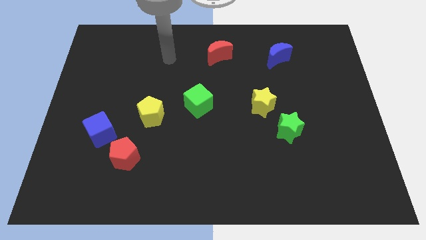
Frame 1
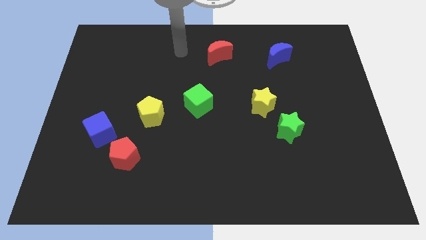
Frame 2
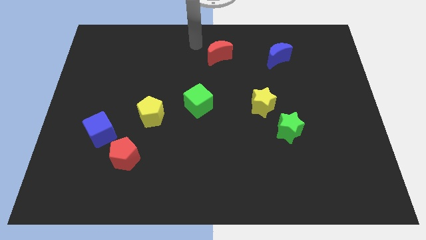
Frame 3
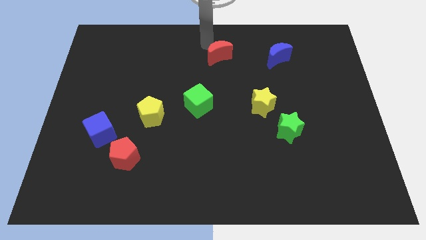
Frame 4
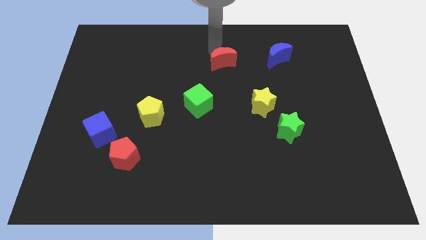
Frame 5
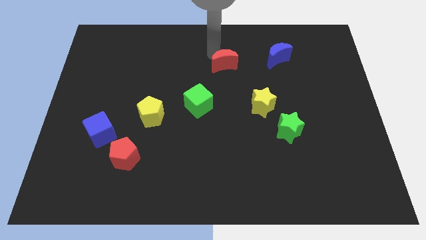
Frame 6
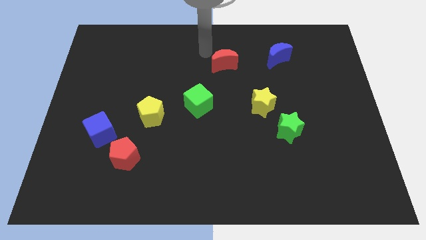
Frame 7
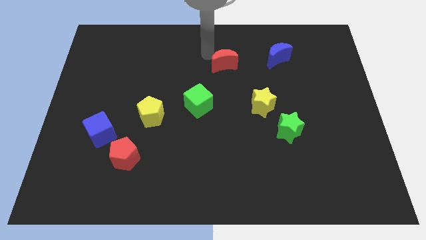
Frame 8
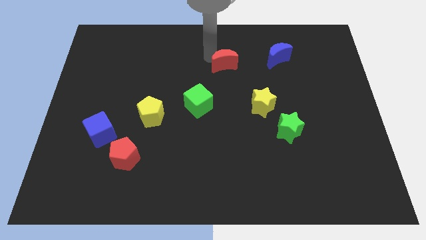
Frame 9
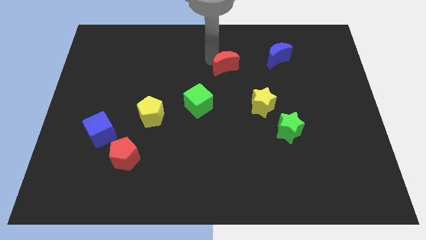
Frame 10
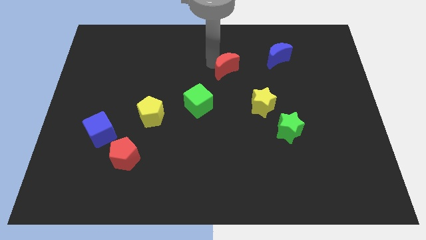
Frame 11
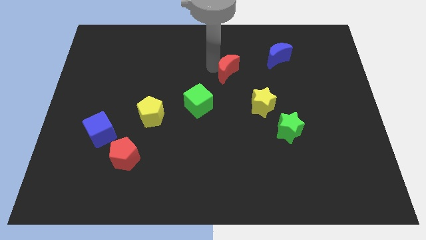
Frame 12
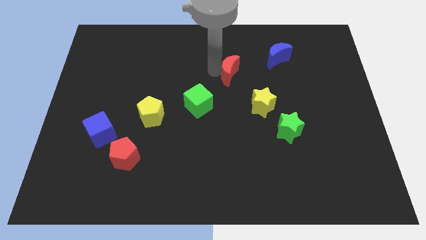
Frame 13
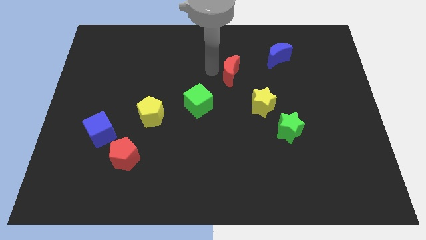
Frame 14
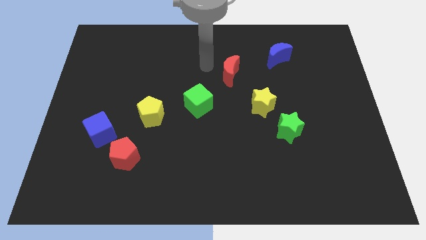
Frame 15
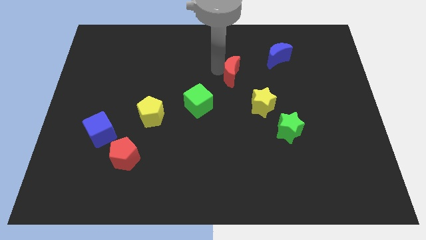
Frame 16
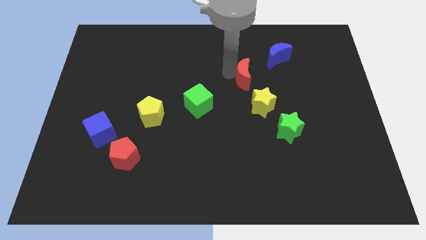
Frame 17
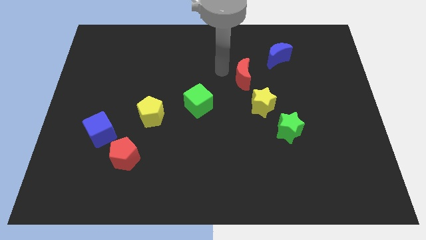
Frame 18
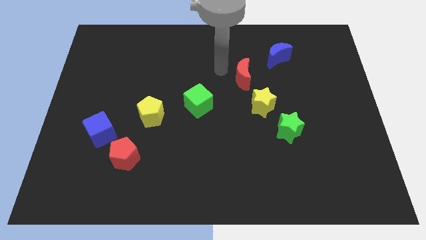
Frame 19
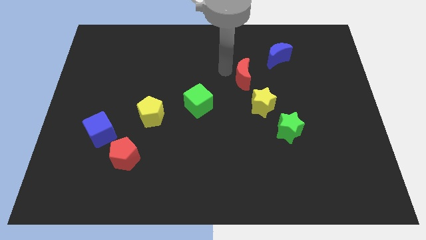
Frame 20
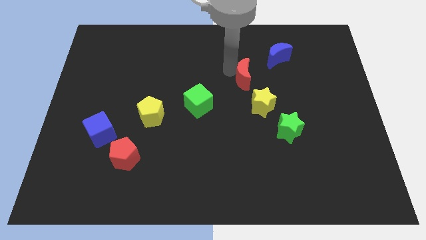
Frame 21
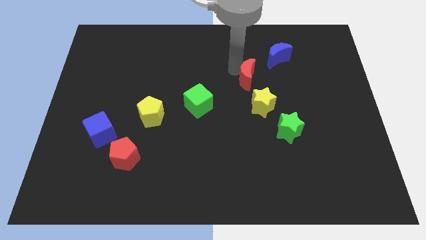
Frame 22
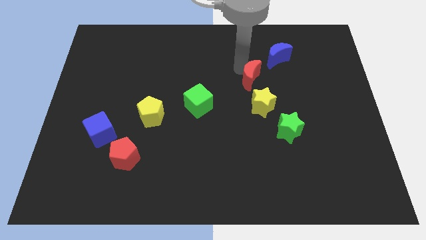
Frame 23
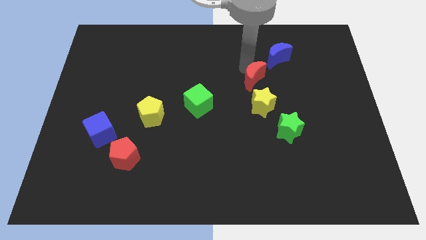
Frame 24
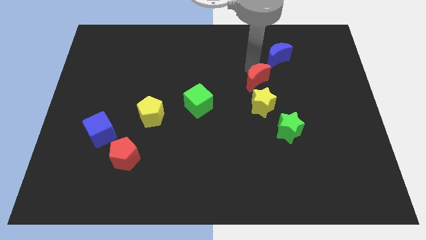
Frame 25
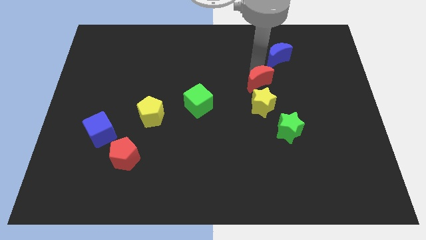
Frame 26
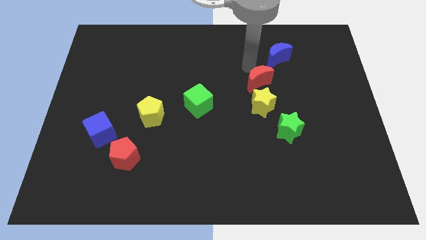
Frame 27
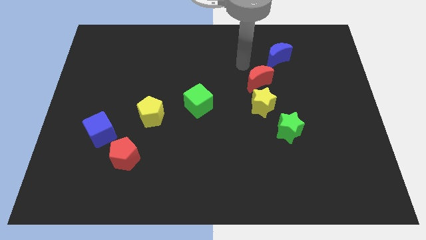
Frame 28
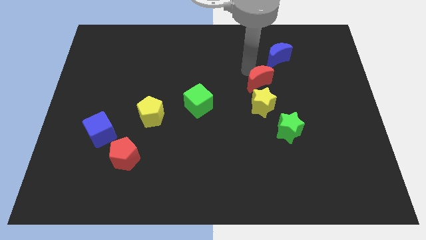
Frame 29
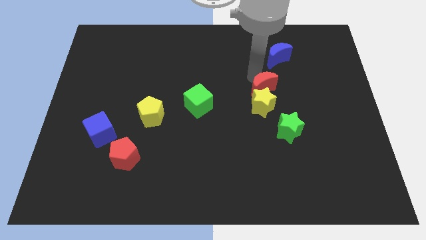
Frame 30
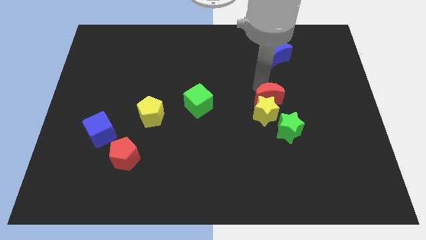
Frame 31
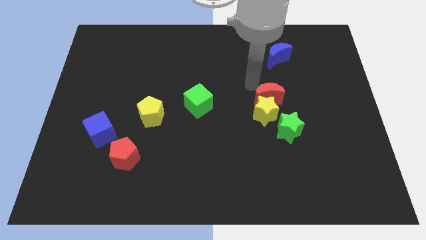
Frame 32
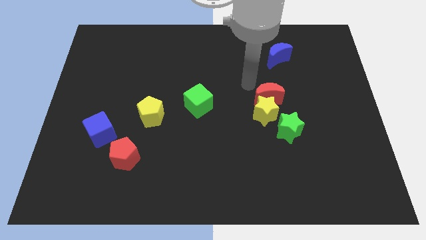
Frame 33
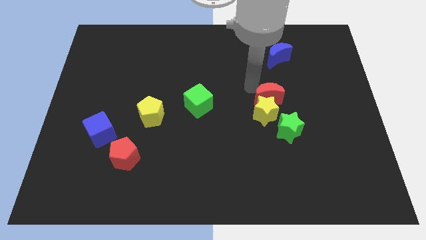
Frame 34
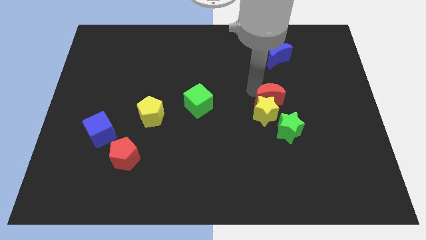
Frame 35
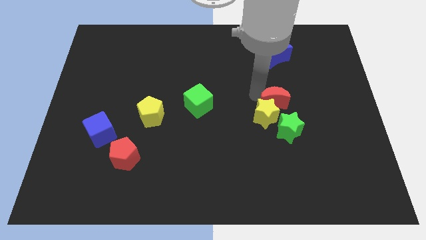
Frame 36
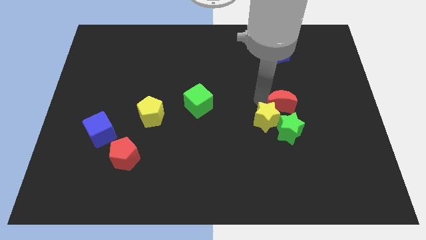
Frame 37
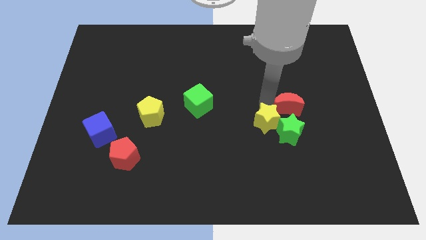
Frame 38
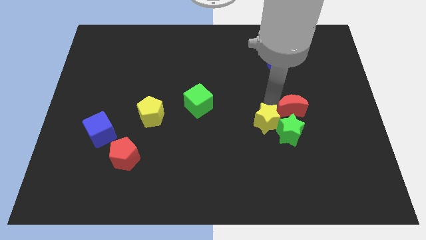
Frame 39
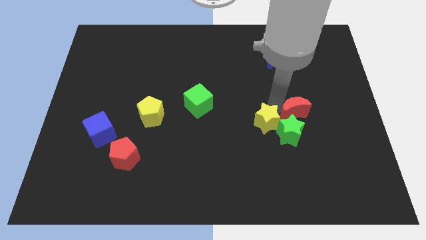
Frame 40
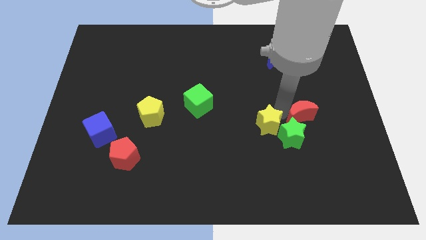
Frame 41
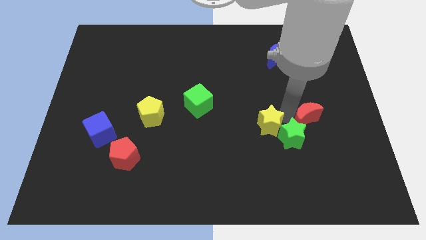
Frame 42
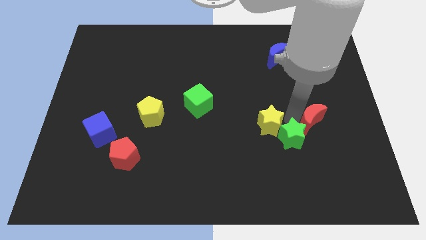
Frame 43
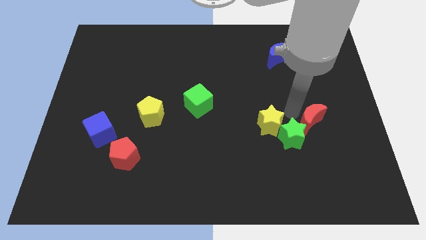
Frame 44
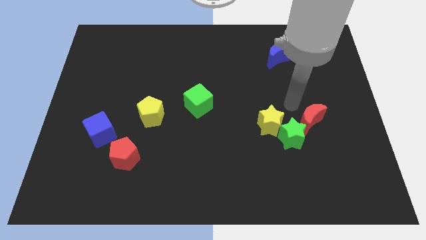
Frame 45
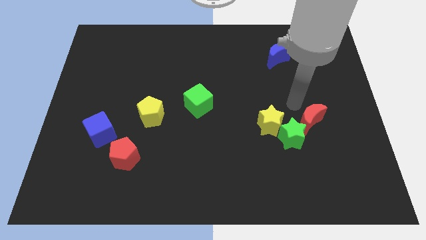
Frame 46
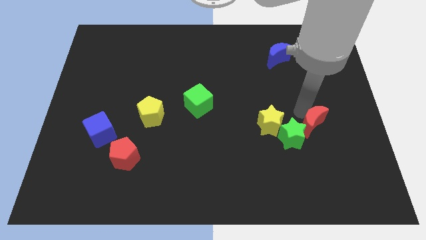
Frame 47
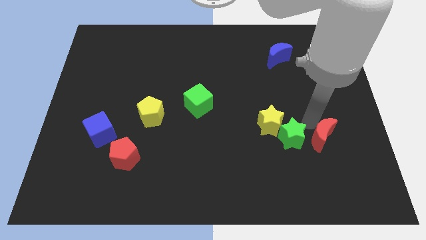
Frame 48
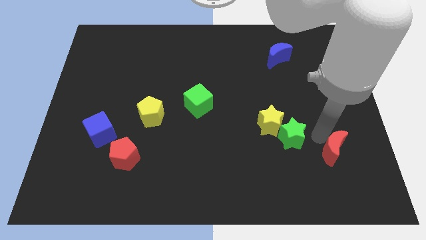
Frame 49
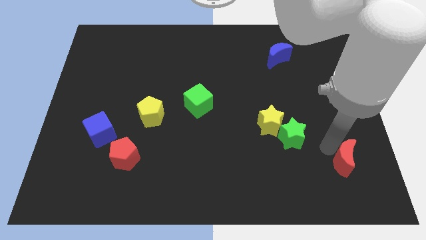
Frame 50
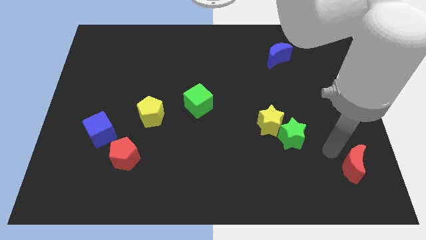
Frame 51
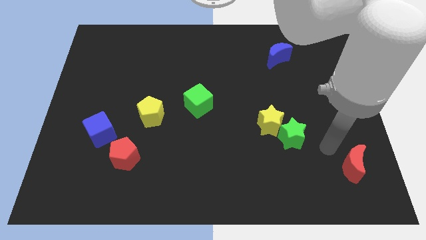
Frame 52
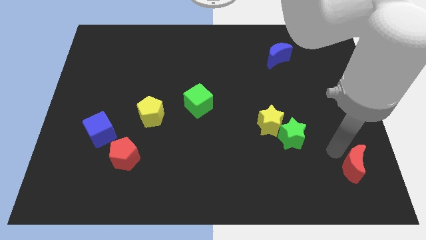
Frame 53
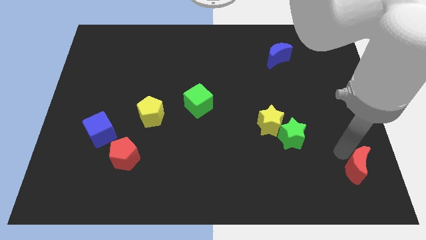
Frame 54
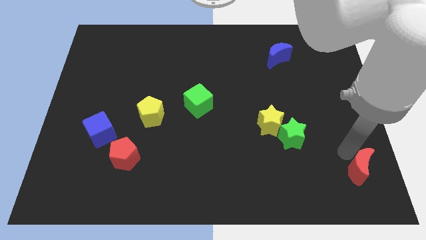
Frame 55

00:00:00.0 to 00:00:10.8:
slide the red moon to the lower right corner

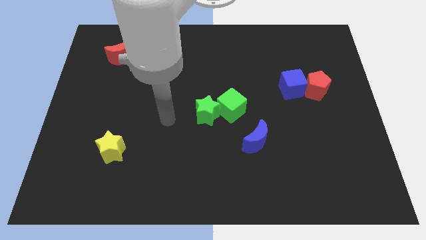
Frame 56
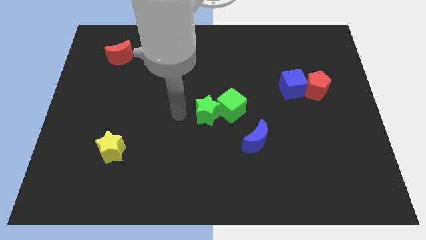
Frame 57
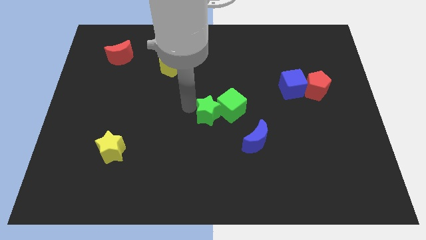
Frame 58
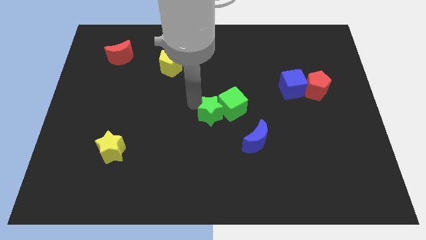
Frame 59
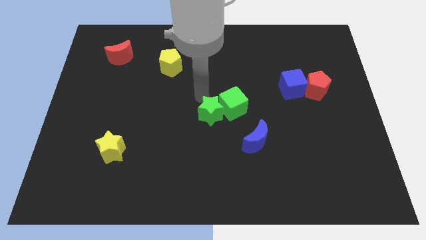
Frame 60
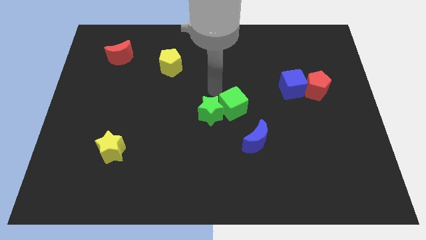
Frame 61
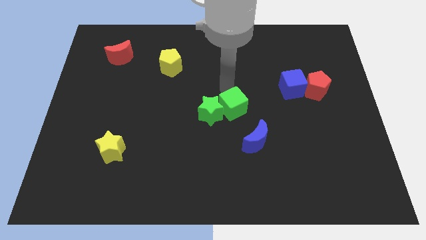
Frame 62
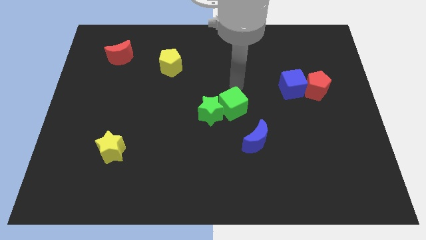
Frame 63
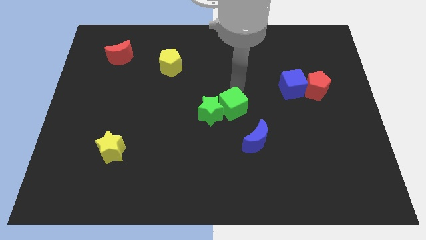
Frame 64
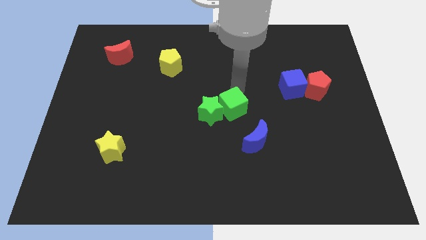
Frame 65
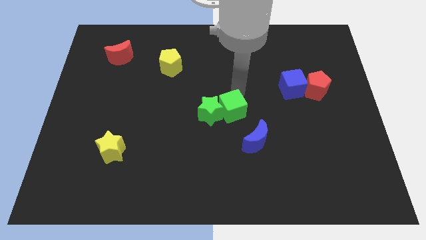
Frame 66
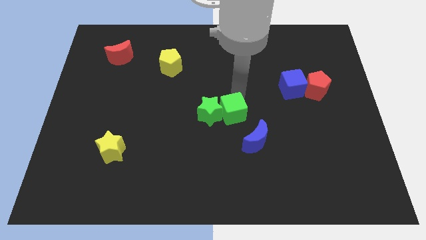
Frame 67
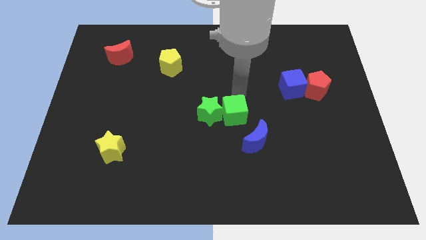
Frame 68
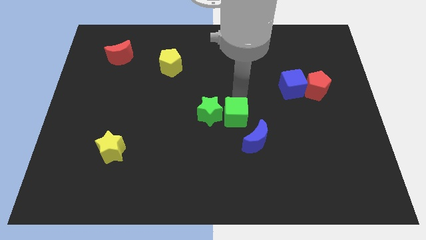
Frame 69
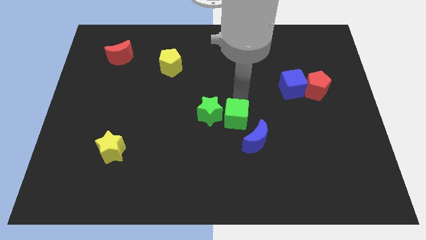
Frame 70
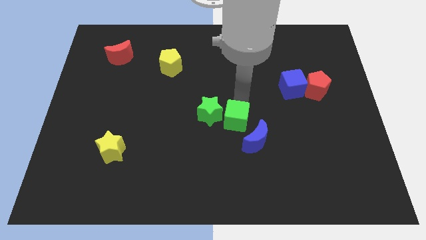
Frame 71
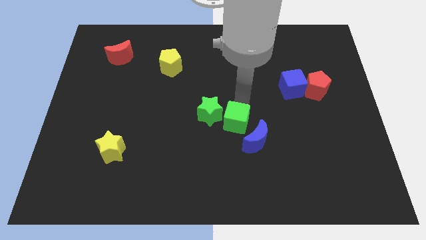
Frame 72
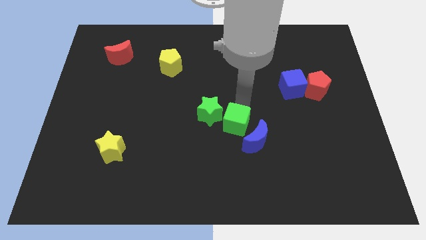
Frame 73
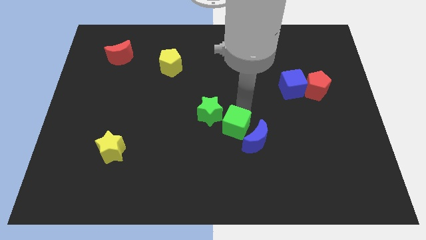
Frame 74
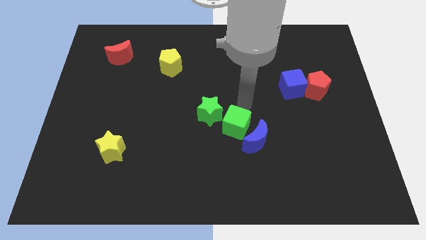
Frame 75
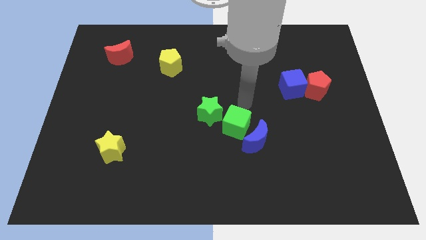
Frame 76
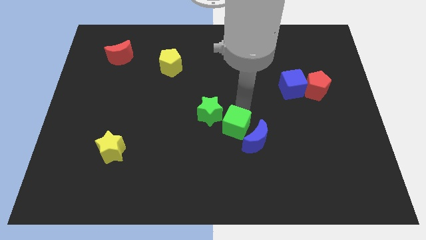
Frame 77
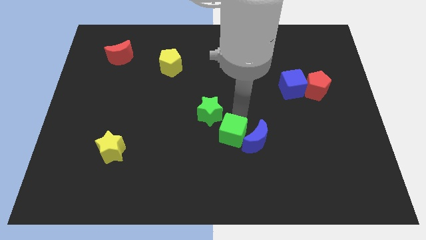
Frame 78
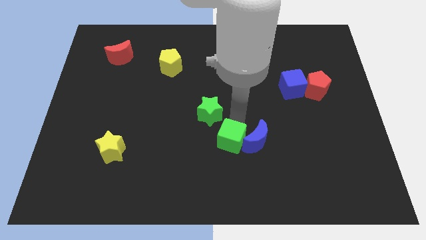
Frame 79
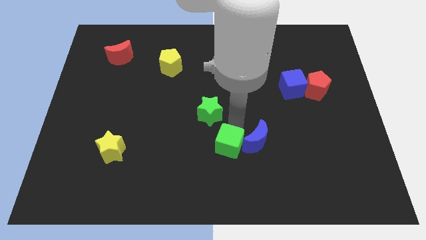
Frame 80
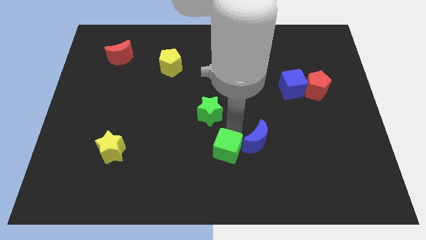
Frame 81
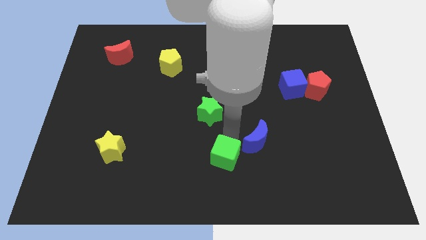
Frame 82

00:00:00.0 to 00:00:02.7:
put the green cube to the bottom
